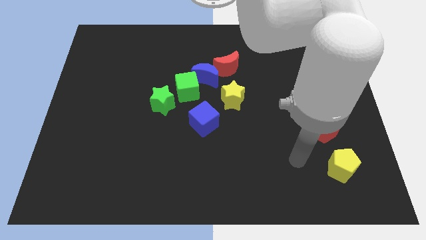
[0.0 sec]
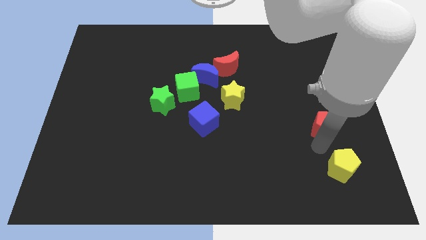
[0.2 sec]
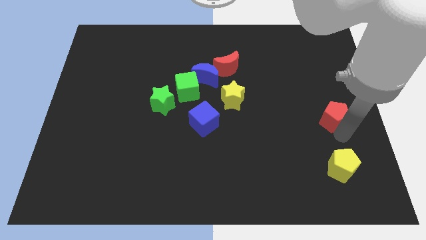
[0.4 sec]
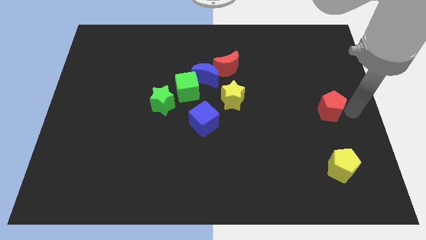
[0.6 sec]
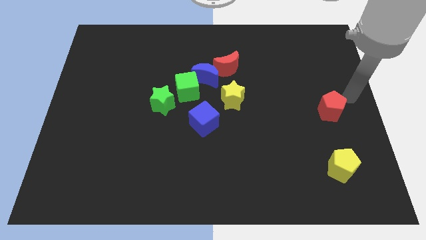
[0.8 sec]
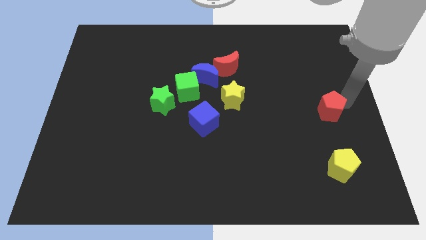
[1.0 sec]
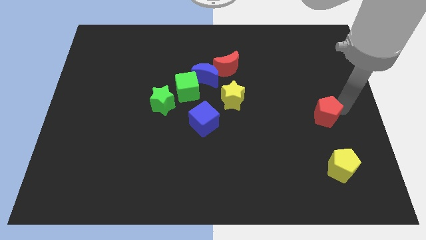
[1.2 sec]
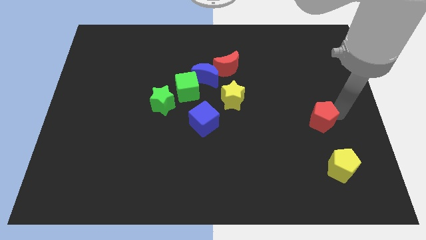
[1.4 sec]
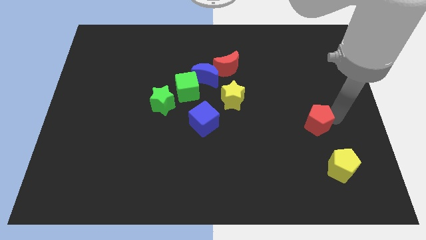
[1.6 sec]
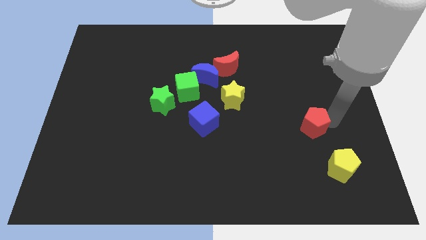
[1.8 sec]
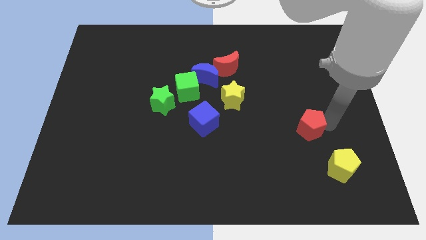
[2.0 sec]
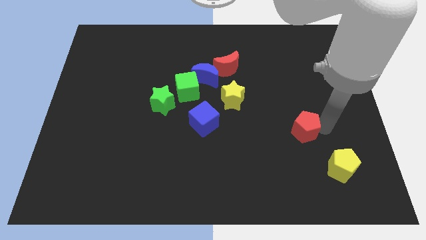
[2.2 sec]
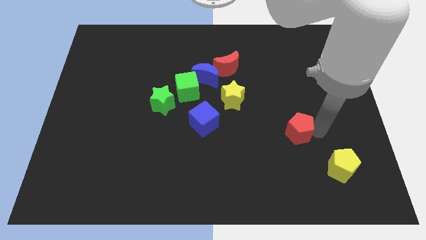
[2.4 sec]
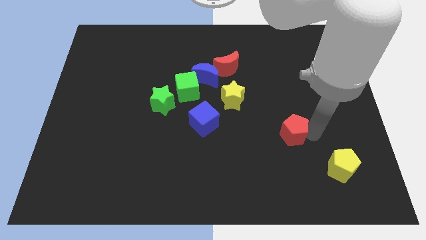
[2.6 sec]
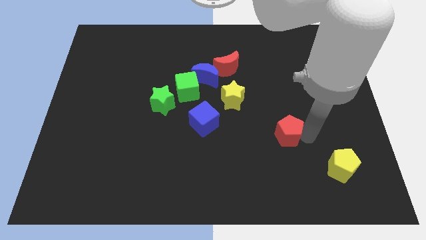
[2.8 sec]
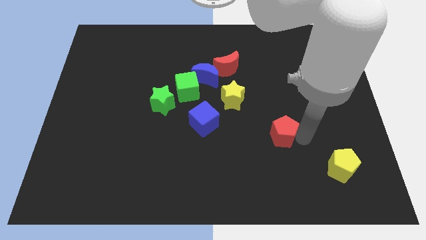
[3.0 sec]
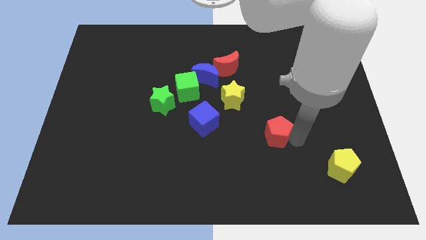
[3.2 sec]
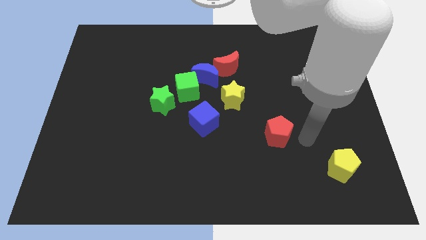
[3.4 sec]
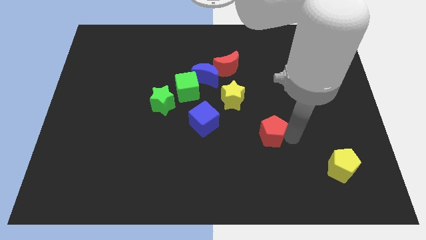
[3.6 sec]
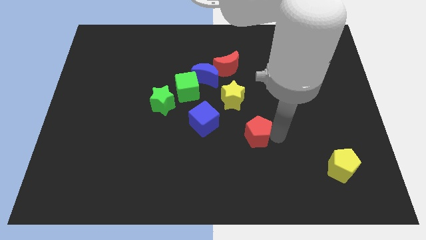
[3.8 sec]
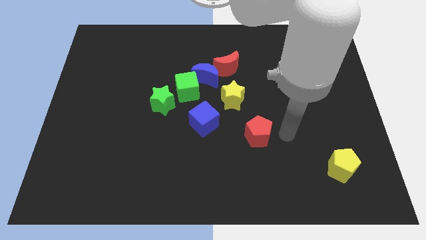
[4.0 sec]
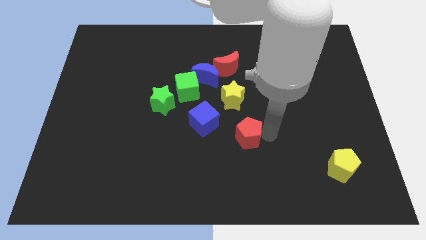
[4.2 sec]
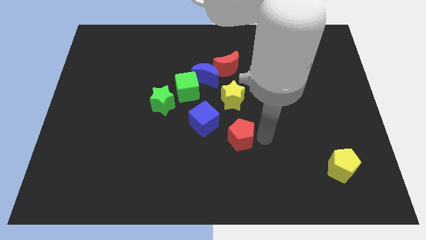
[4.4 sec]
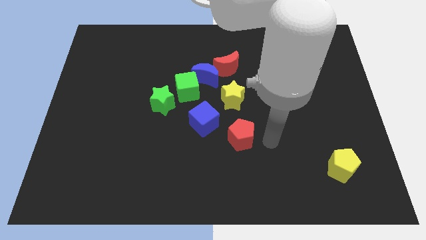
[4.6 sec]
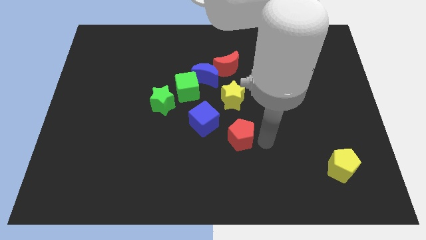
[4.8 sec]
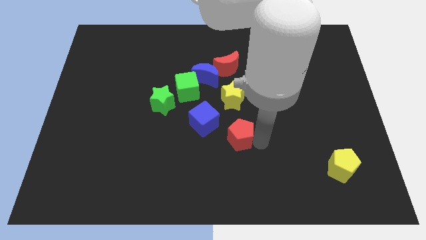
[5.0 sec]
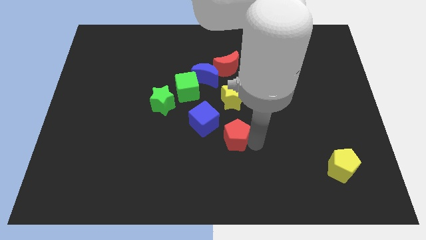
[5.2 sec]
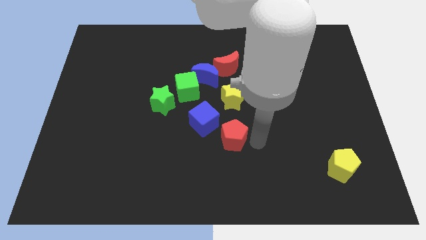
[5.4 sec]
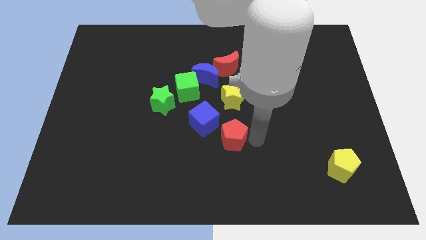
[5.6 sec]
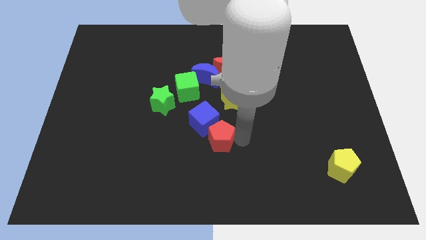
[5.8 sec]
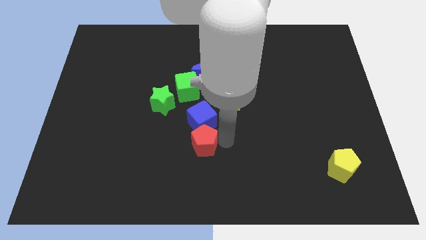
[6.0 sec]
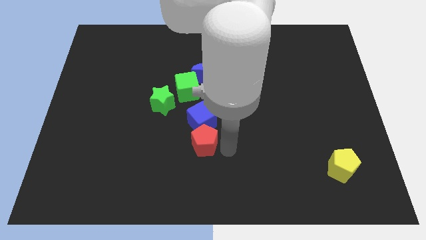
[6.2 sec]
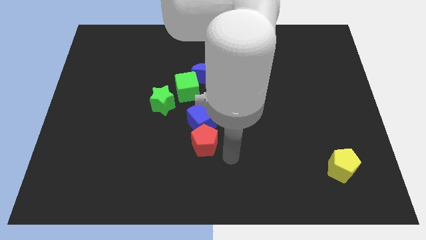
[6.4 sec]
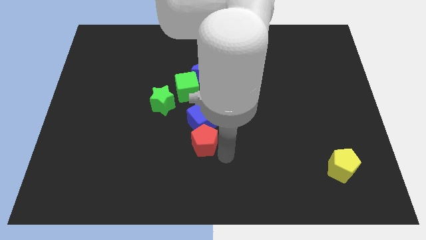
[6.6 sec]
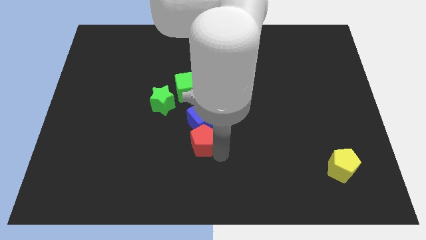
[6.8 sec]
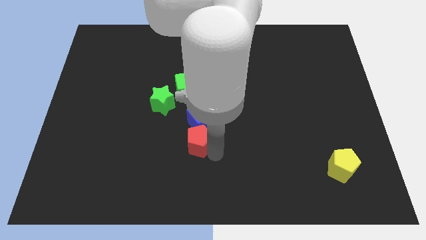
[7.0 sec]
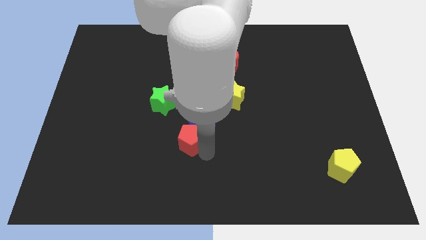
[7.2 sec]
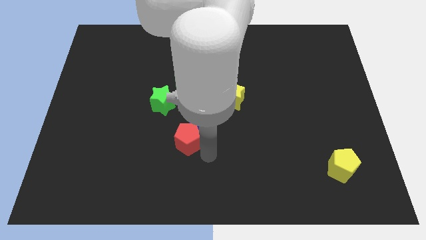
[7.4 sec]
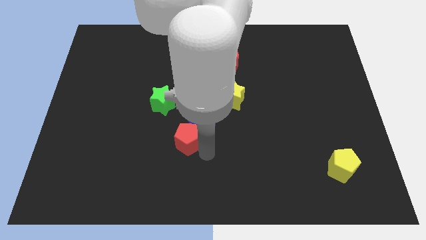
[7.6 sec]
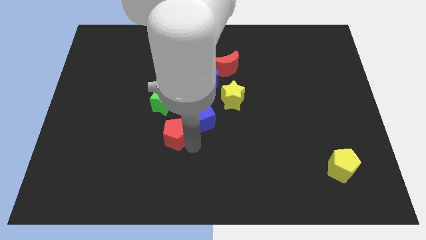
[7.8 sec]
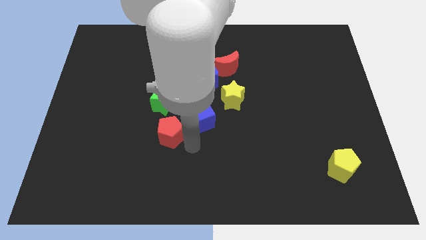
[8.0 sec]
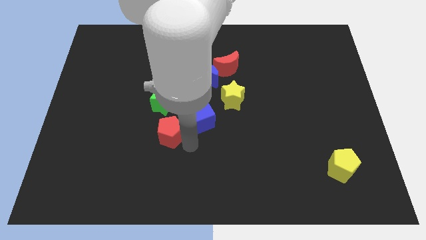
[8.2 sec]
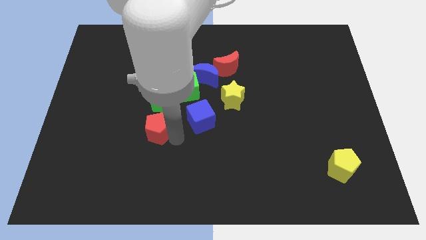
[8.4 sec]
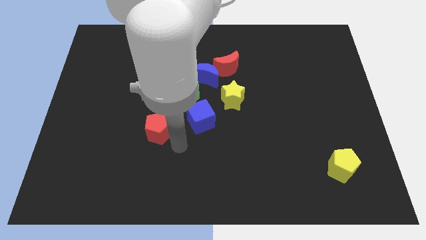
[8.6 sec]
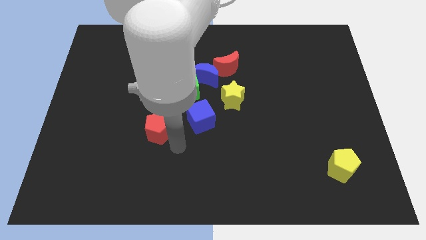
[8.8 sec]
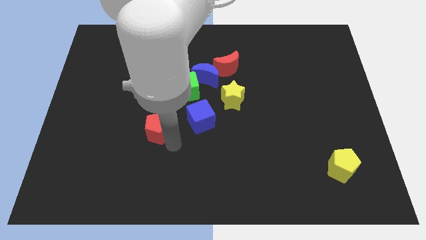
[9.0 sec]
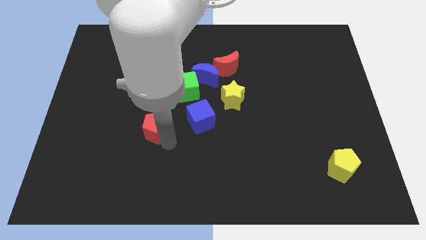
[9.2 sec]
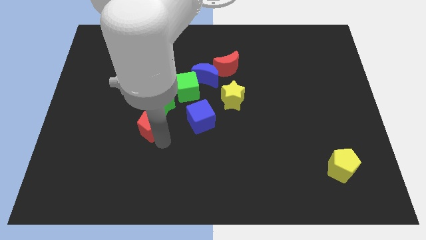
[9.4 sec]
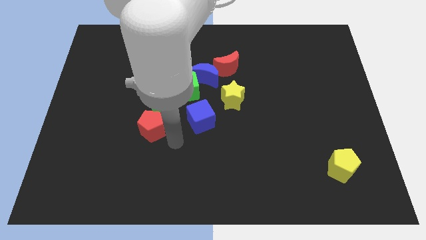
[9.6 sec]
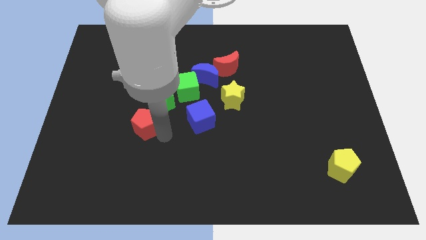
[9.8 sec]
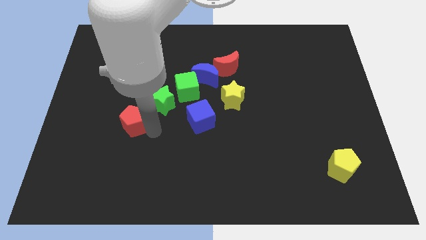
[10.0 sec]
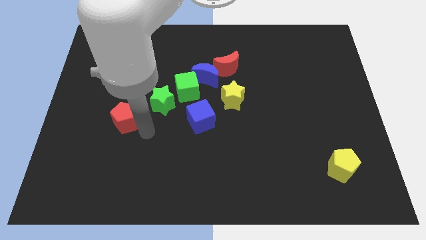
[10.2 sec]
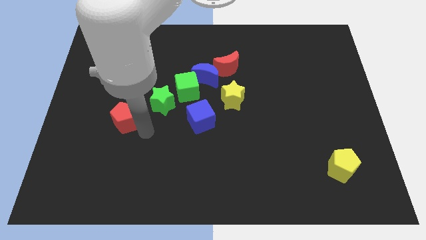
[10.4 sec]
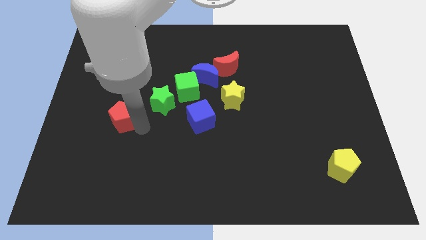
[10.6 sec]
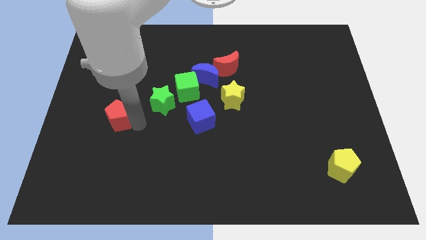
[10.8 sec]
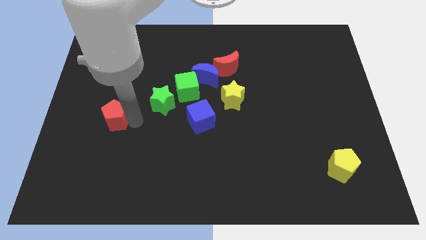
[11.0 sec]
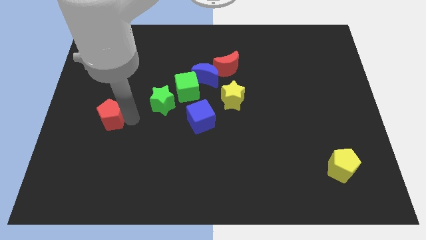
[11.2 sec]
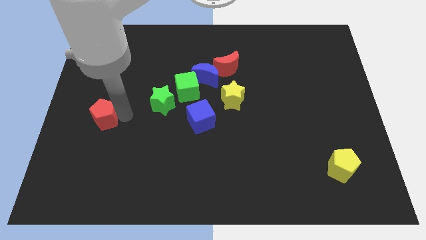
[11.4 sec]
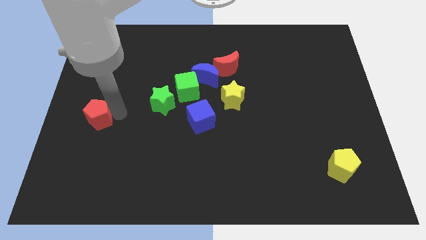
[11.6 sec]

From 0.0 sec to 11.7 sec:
move the red pentagon to the left side of the board

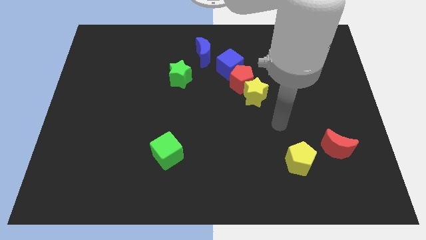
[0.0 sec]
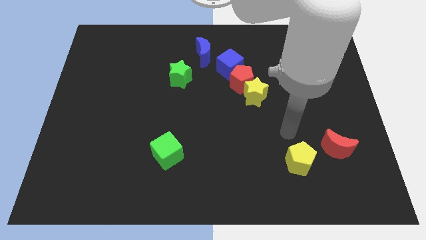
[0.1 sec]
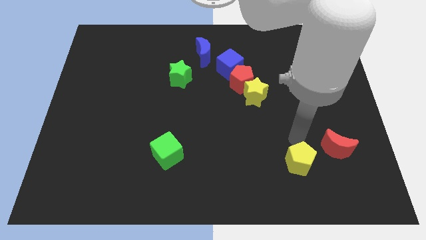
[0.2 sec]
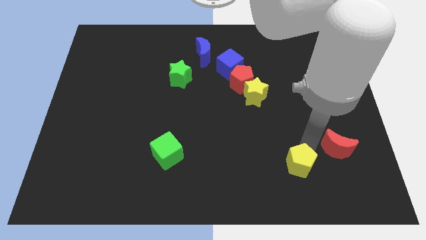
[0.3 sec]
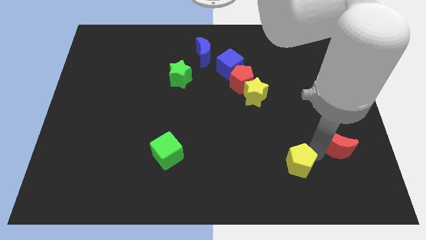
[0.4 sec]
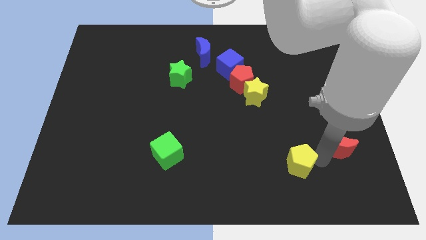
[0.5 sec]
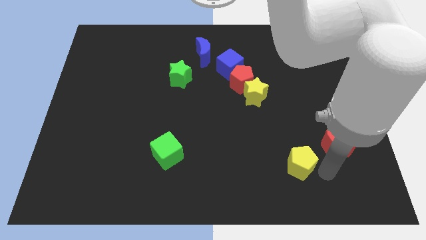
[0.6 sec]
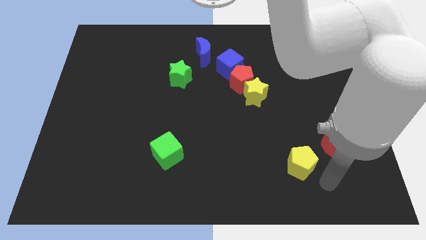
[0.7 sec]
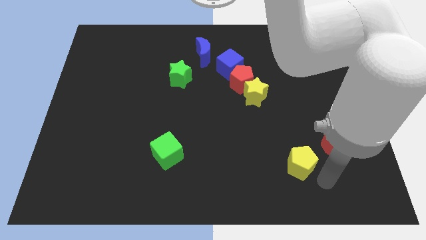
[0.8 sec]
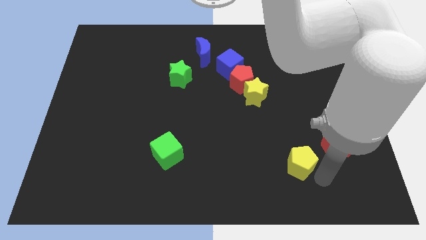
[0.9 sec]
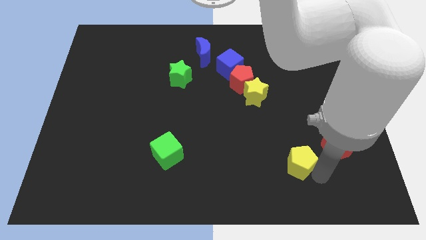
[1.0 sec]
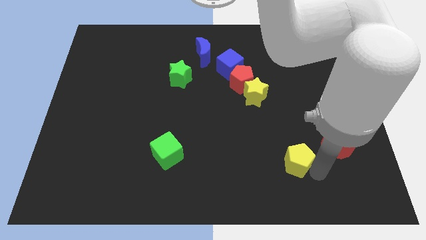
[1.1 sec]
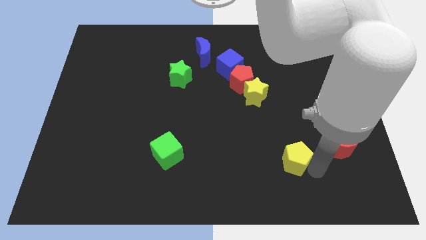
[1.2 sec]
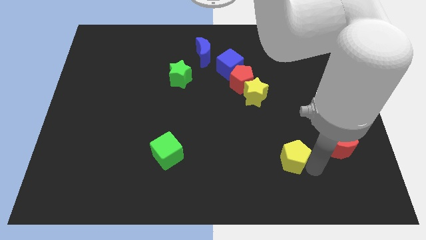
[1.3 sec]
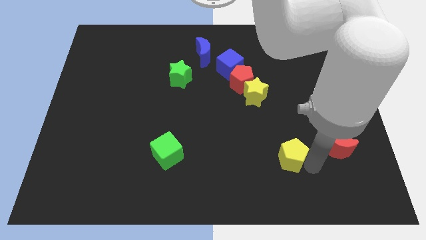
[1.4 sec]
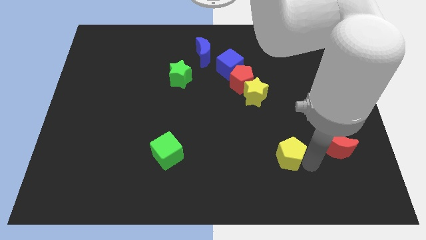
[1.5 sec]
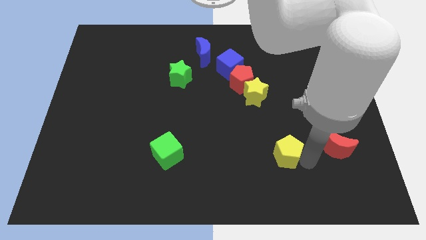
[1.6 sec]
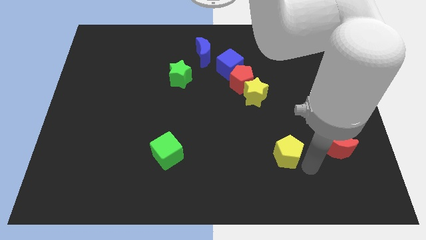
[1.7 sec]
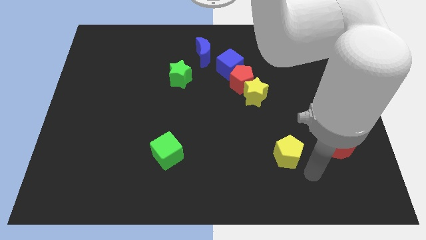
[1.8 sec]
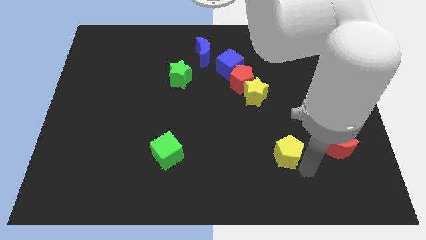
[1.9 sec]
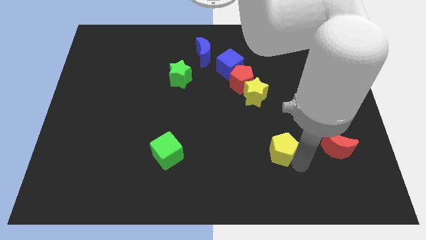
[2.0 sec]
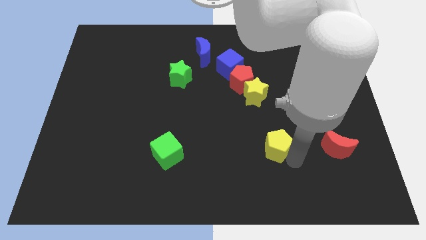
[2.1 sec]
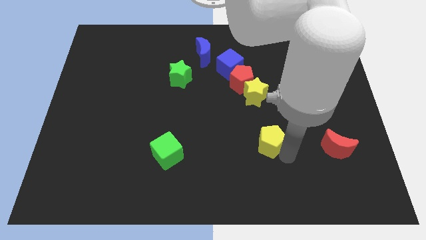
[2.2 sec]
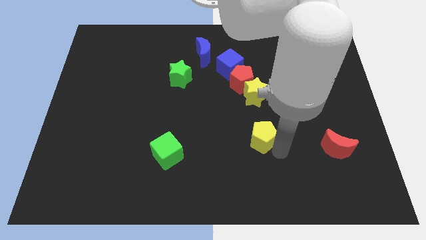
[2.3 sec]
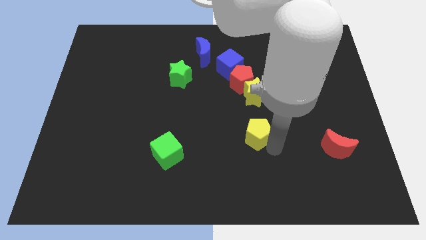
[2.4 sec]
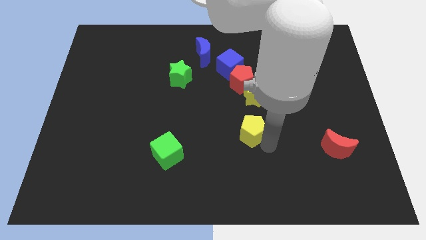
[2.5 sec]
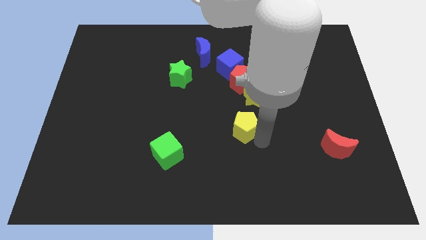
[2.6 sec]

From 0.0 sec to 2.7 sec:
move the yellow pentagon to the middle of the board
